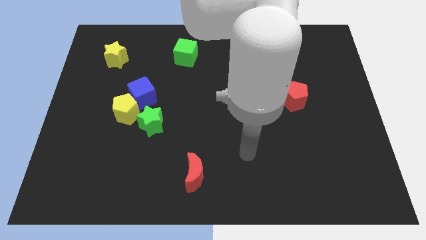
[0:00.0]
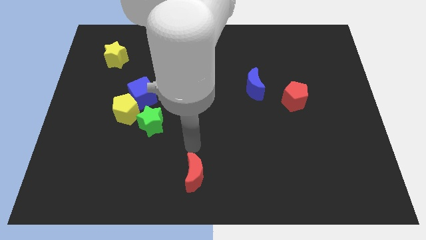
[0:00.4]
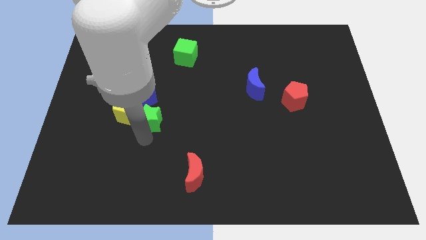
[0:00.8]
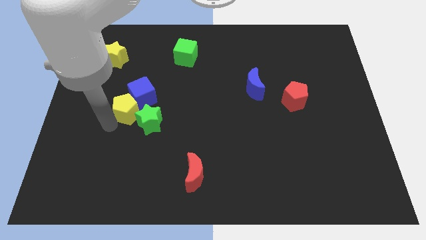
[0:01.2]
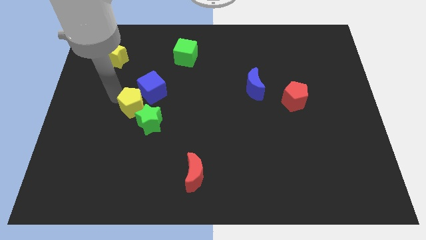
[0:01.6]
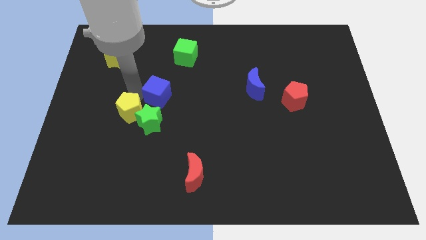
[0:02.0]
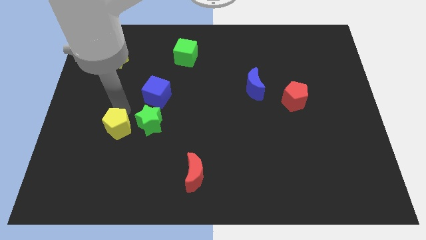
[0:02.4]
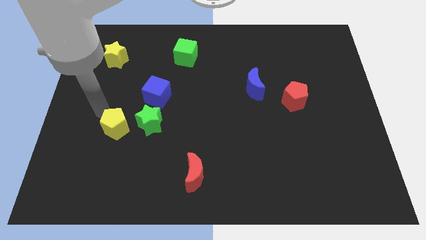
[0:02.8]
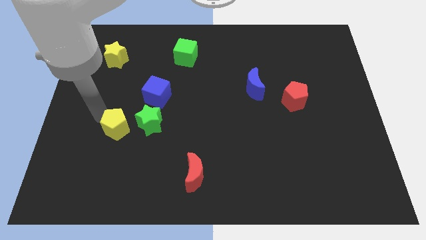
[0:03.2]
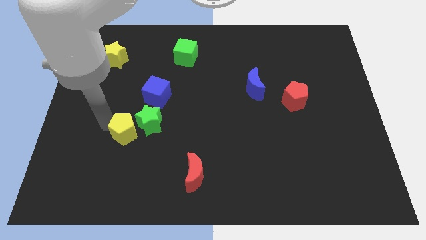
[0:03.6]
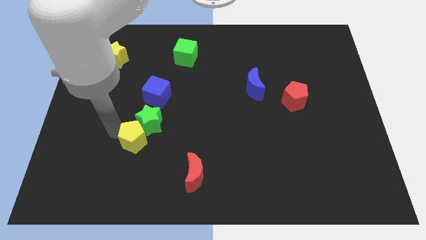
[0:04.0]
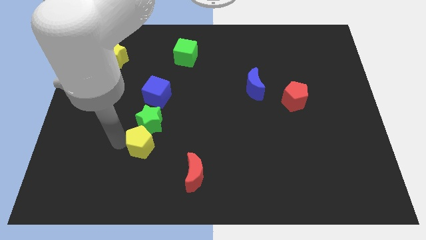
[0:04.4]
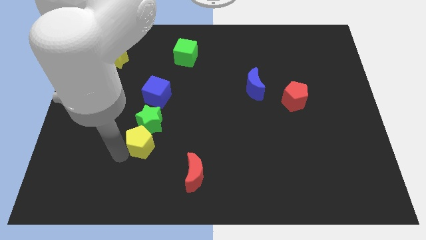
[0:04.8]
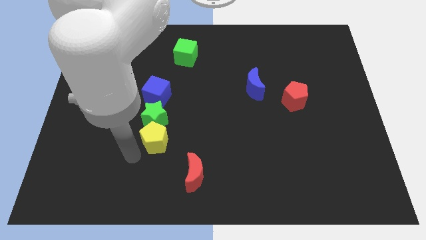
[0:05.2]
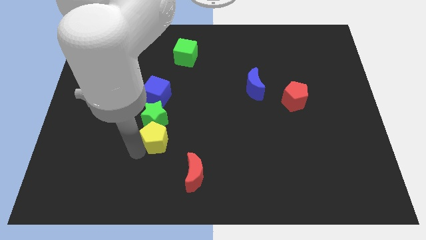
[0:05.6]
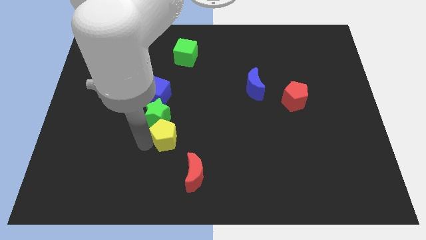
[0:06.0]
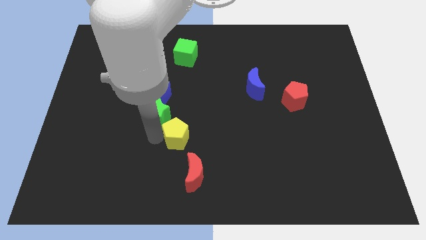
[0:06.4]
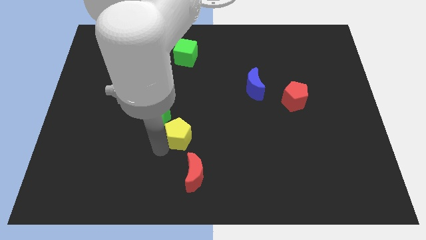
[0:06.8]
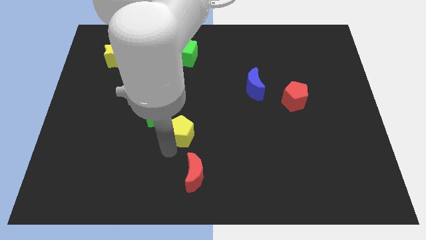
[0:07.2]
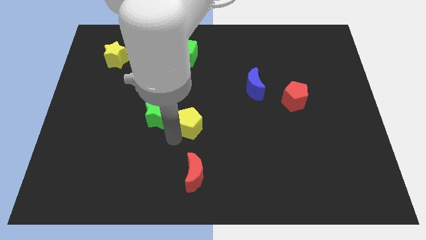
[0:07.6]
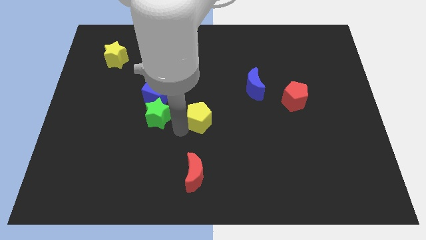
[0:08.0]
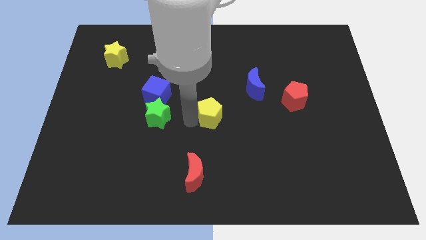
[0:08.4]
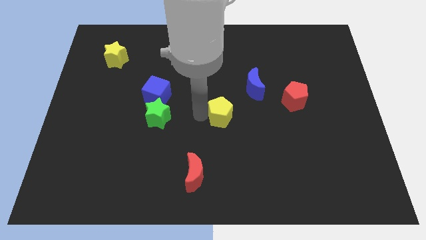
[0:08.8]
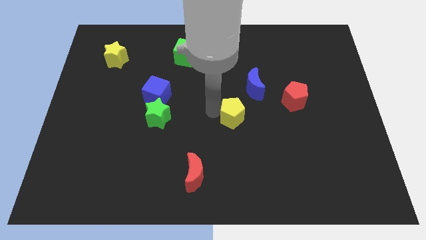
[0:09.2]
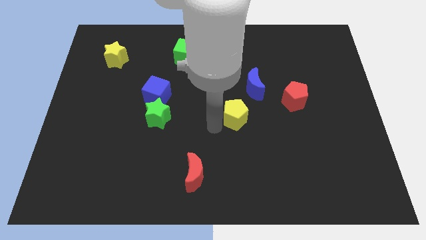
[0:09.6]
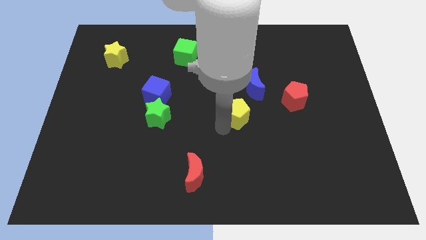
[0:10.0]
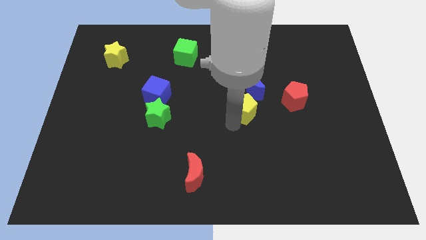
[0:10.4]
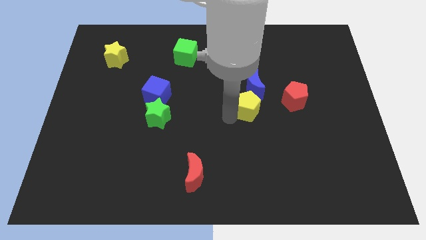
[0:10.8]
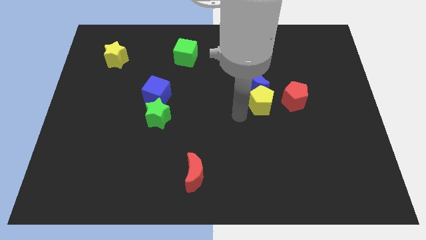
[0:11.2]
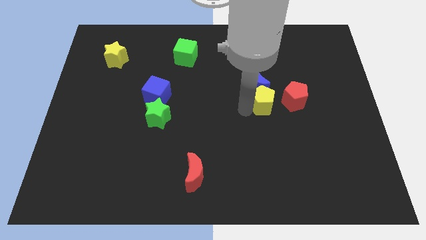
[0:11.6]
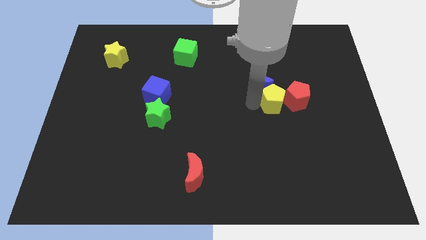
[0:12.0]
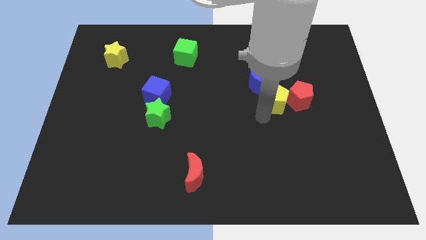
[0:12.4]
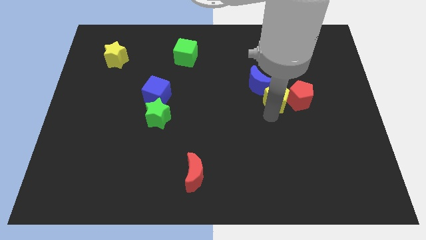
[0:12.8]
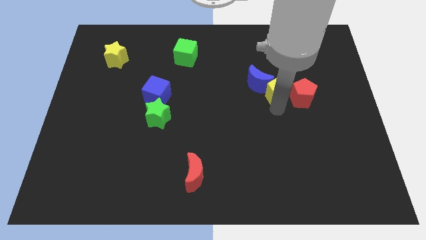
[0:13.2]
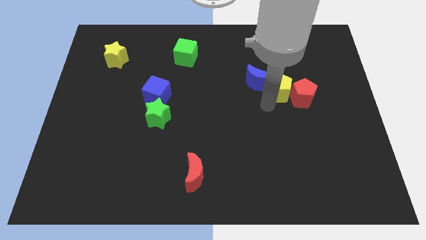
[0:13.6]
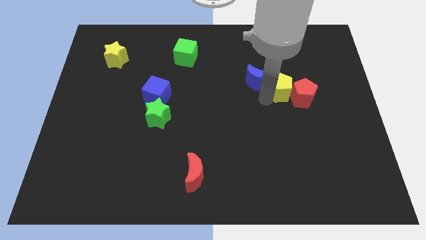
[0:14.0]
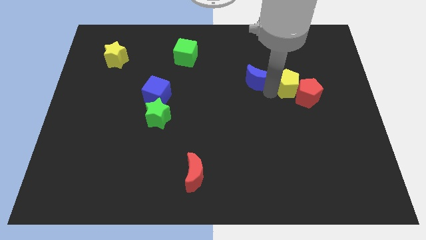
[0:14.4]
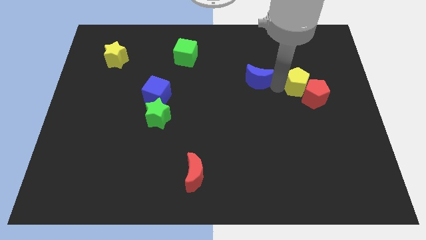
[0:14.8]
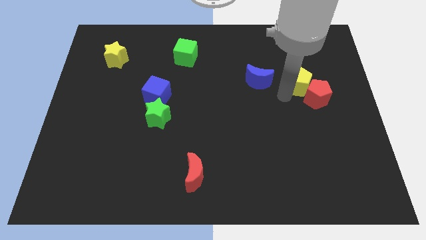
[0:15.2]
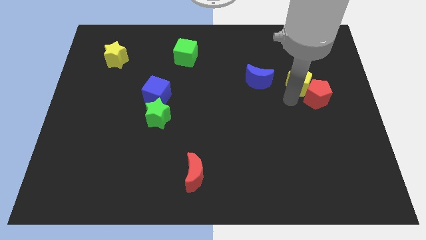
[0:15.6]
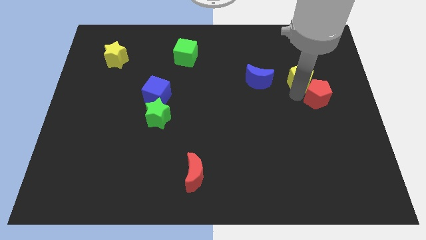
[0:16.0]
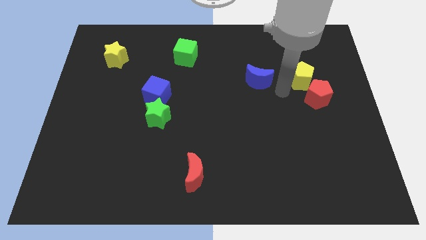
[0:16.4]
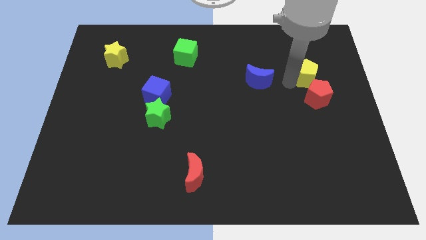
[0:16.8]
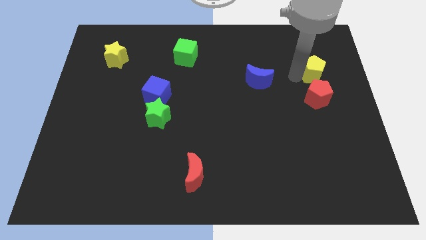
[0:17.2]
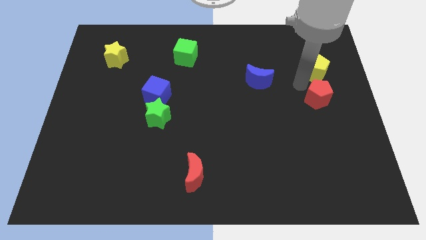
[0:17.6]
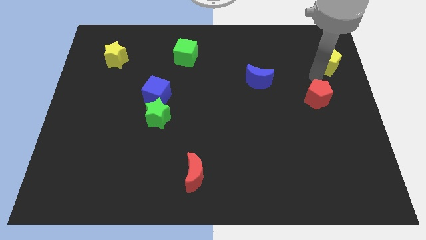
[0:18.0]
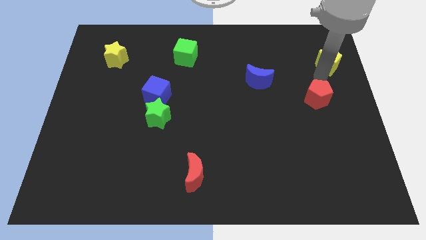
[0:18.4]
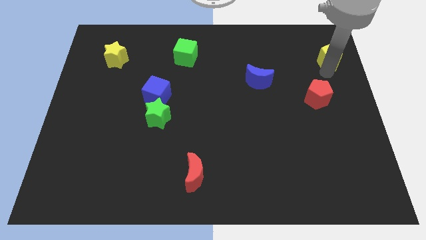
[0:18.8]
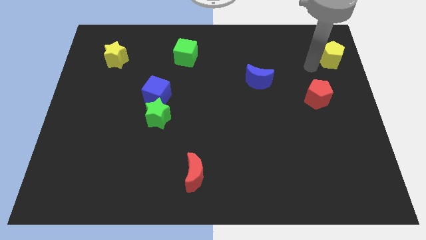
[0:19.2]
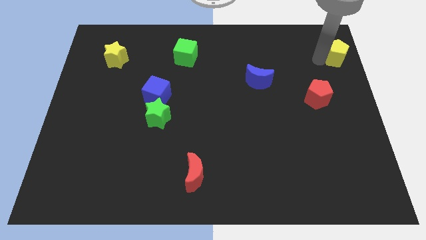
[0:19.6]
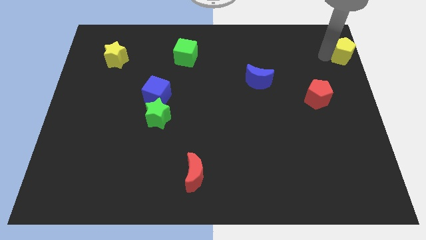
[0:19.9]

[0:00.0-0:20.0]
put the yellow pentagon to the top right

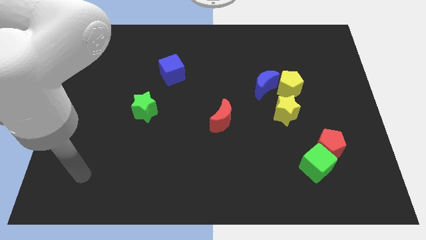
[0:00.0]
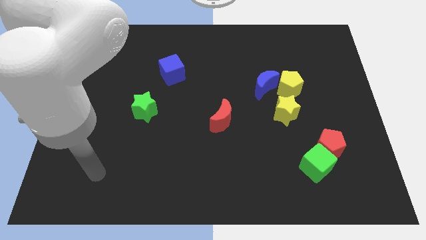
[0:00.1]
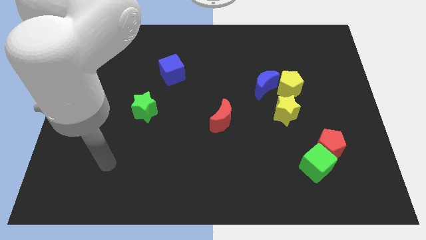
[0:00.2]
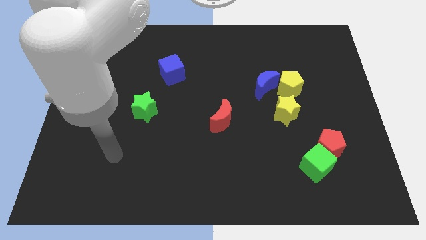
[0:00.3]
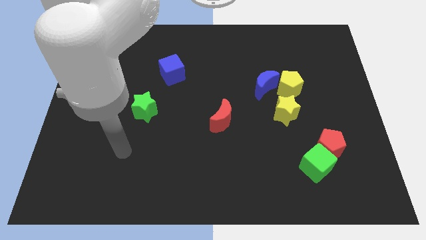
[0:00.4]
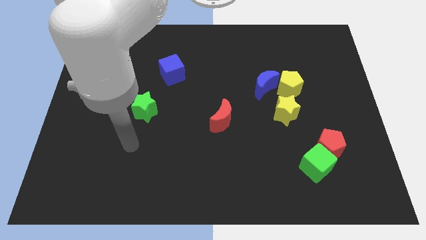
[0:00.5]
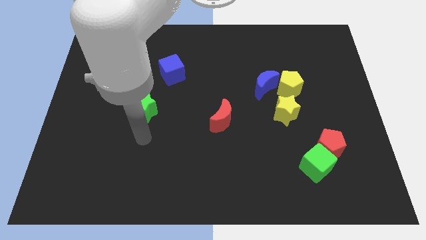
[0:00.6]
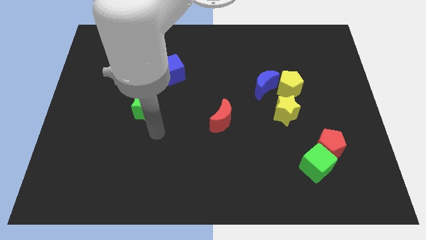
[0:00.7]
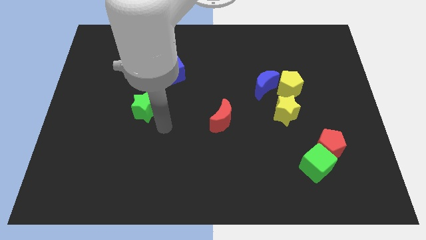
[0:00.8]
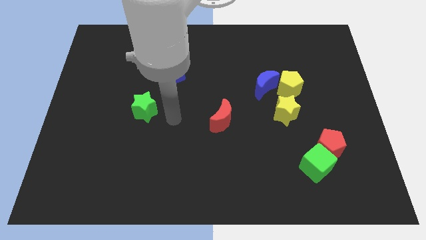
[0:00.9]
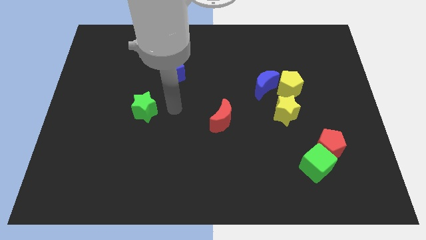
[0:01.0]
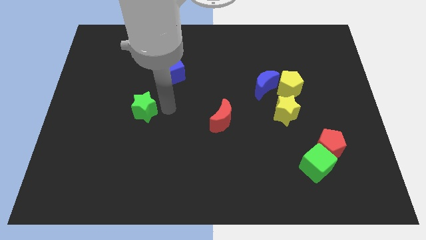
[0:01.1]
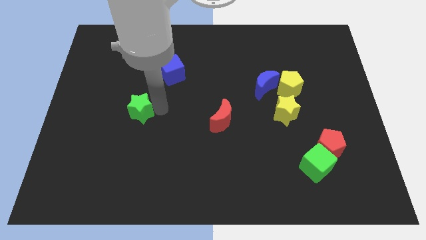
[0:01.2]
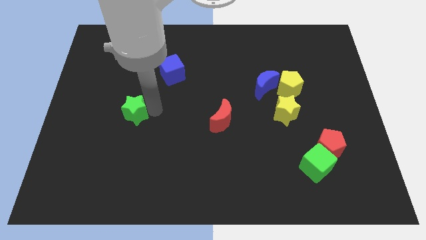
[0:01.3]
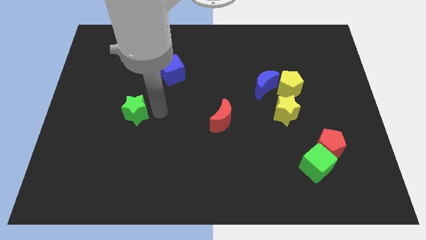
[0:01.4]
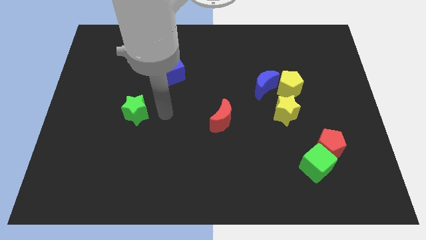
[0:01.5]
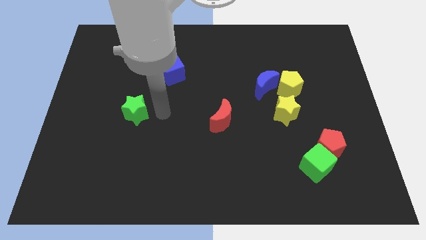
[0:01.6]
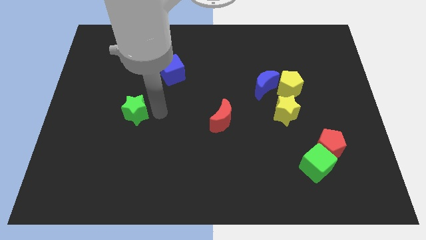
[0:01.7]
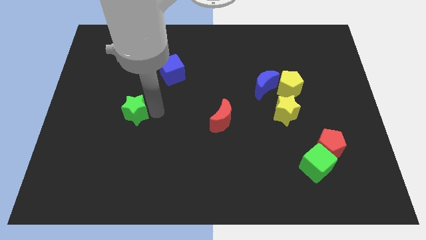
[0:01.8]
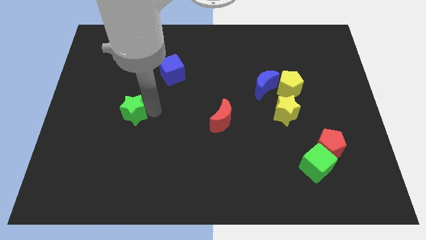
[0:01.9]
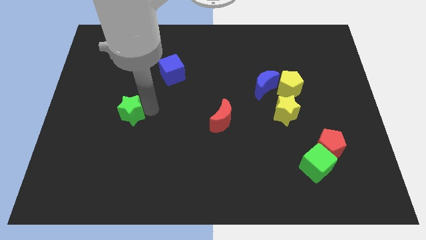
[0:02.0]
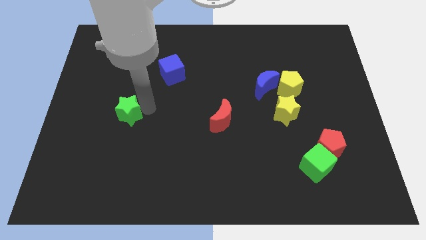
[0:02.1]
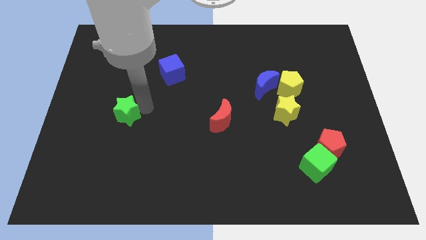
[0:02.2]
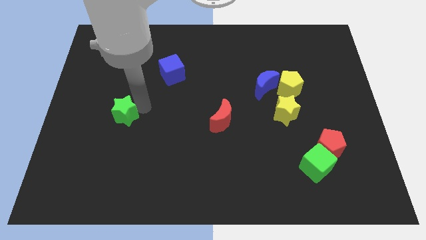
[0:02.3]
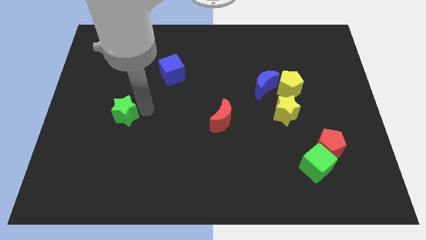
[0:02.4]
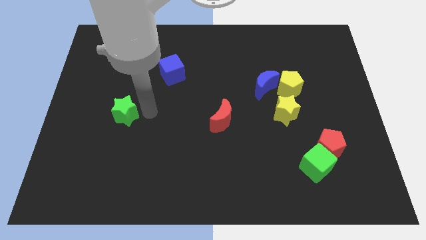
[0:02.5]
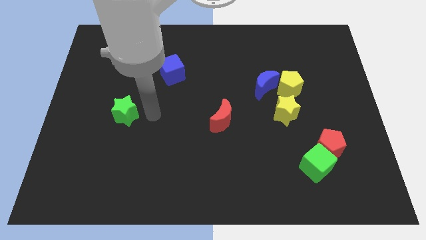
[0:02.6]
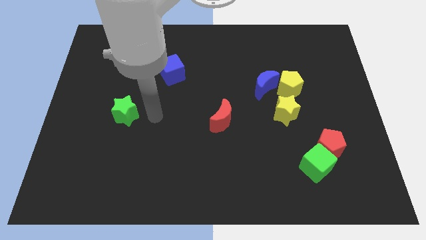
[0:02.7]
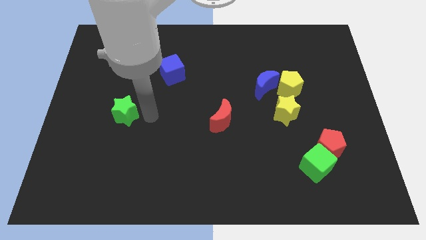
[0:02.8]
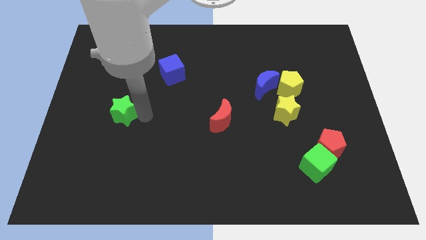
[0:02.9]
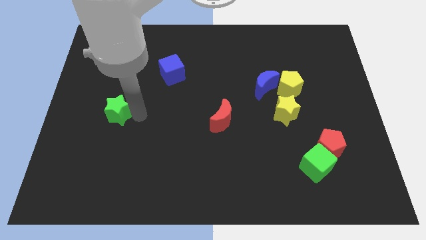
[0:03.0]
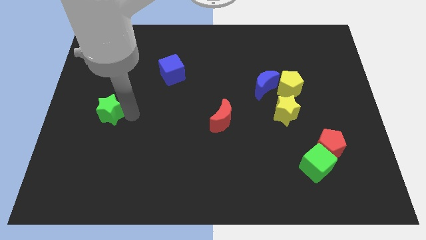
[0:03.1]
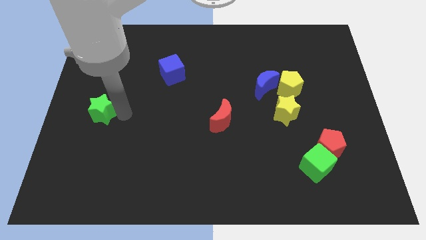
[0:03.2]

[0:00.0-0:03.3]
slide the green star to the center left

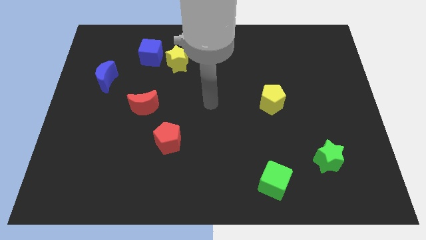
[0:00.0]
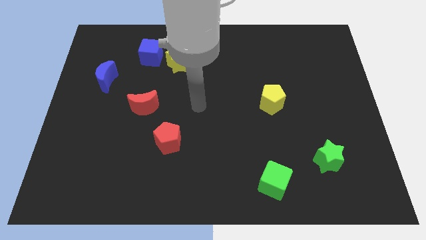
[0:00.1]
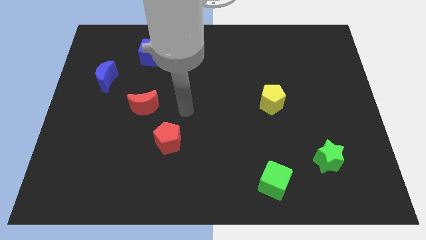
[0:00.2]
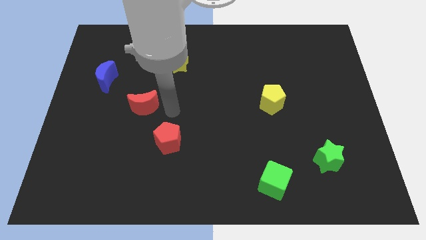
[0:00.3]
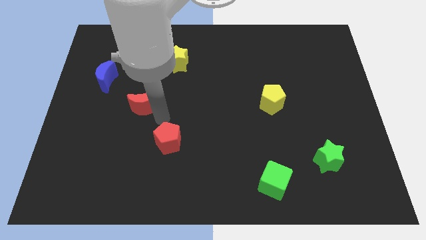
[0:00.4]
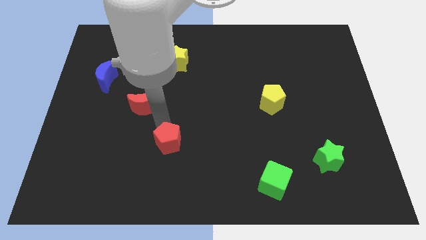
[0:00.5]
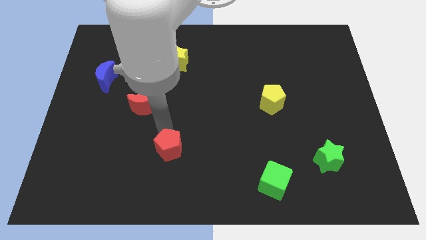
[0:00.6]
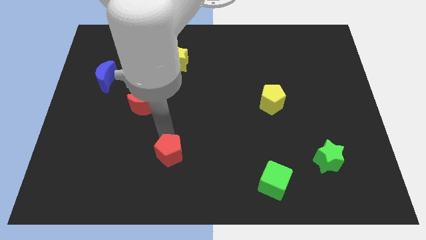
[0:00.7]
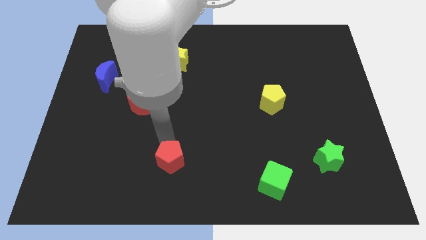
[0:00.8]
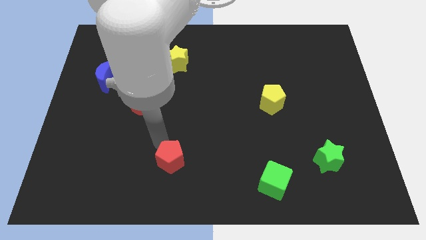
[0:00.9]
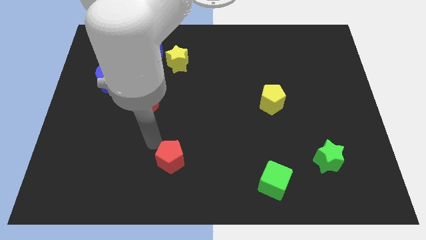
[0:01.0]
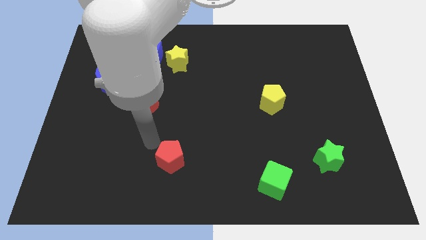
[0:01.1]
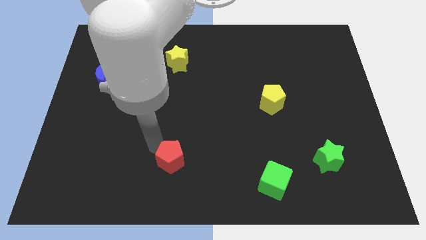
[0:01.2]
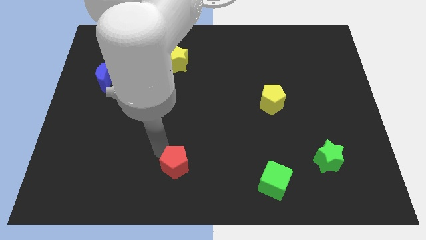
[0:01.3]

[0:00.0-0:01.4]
slide the red pentagon to the bottom
